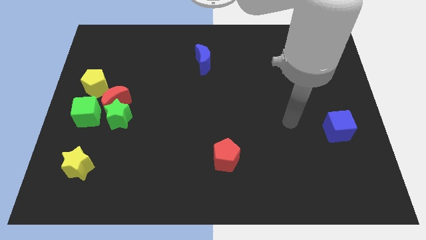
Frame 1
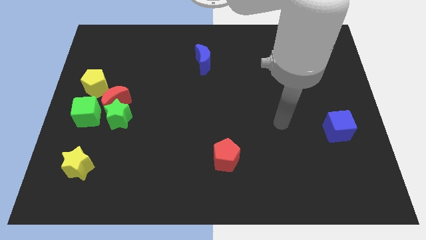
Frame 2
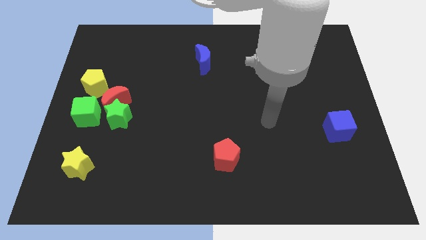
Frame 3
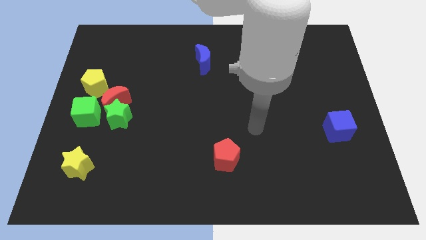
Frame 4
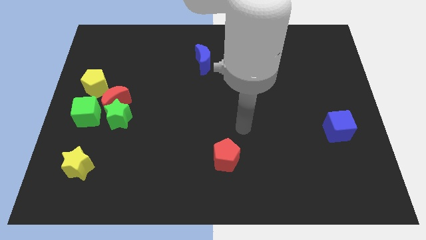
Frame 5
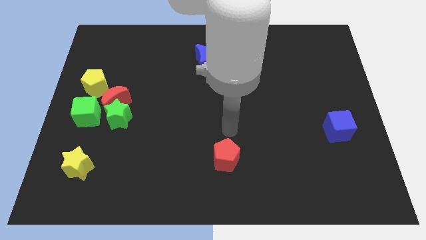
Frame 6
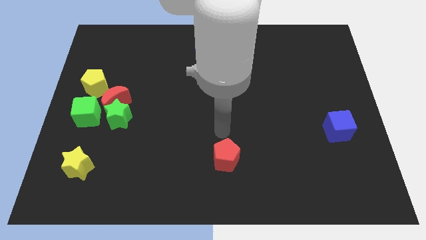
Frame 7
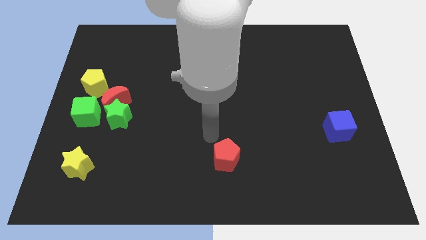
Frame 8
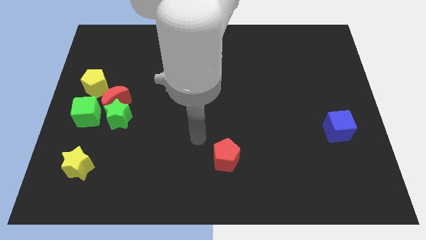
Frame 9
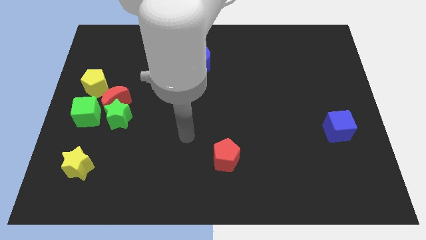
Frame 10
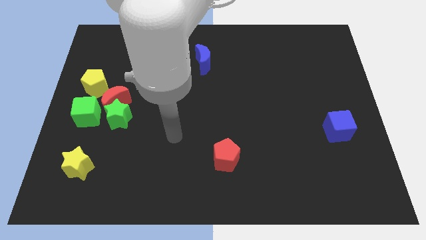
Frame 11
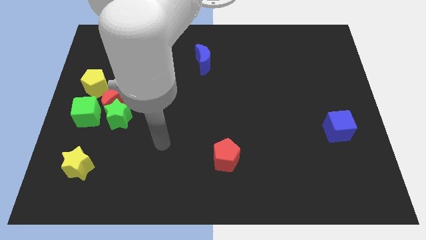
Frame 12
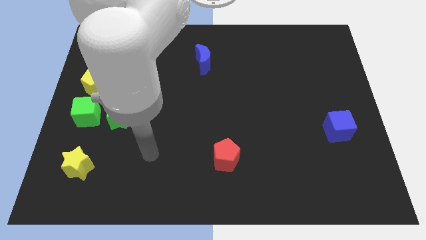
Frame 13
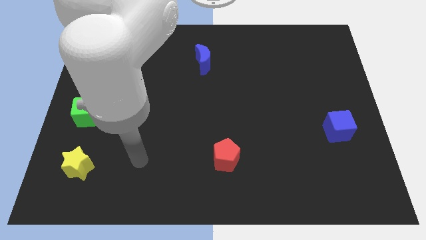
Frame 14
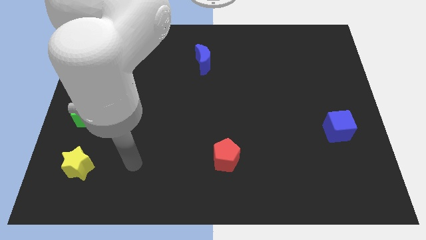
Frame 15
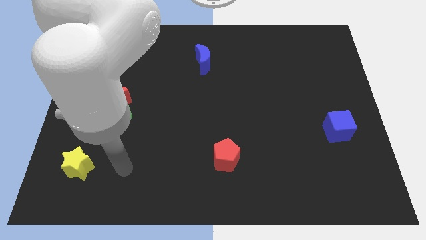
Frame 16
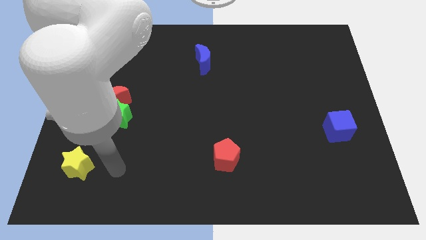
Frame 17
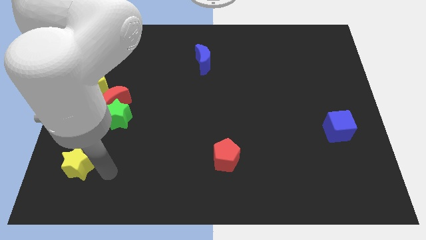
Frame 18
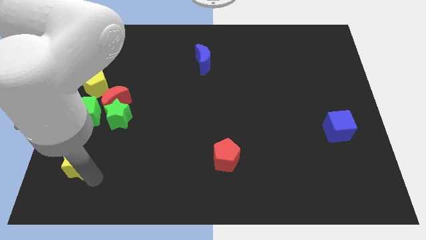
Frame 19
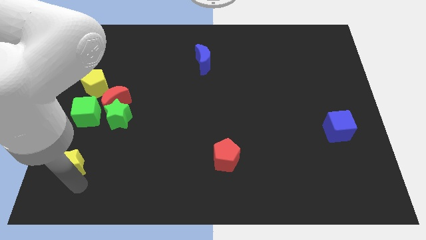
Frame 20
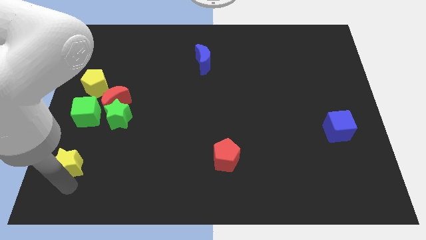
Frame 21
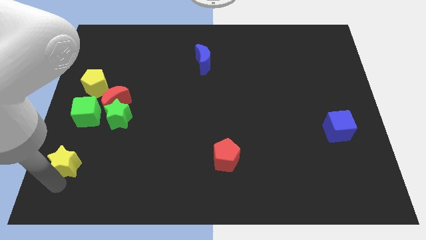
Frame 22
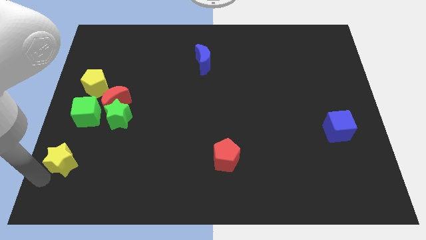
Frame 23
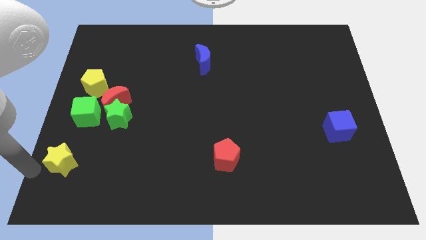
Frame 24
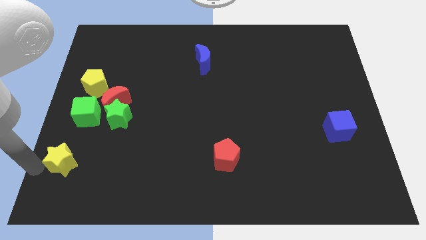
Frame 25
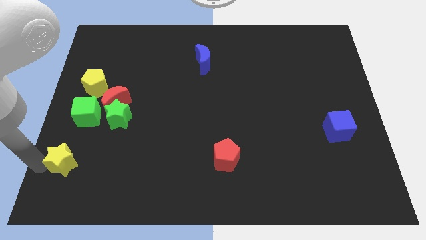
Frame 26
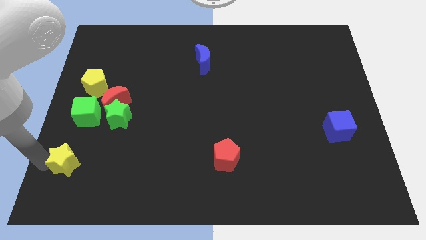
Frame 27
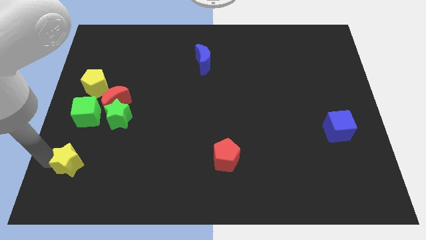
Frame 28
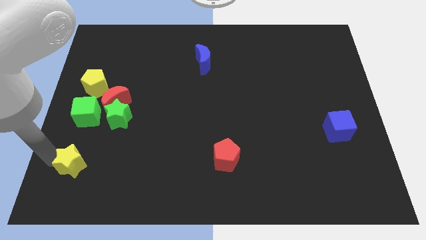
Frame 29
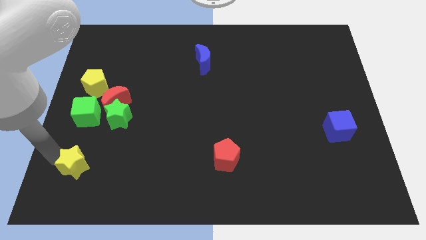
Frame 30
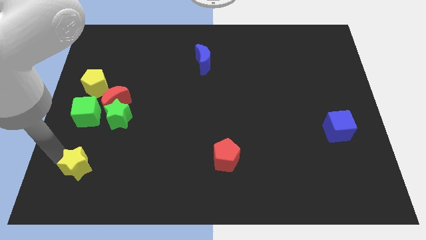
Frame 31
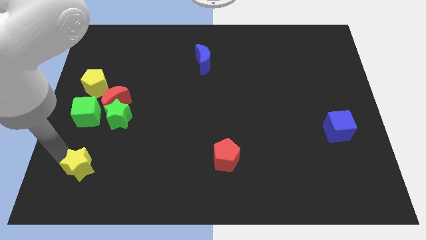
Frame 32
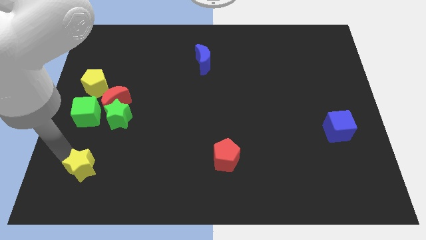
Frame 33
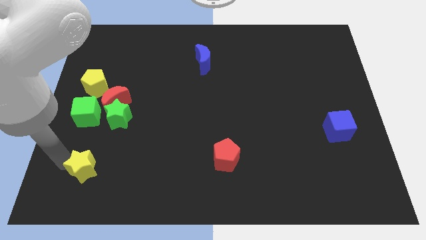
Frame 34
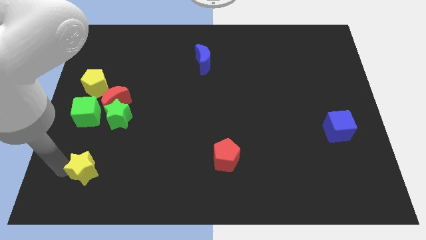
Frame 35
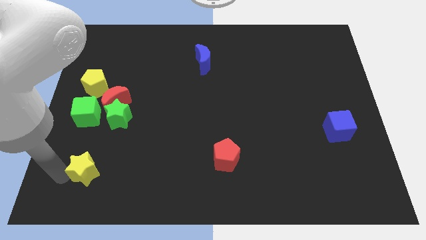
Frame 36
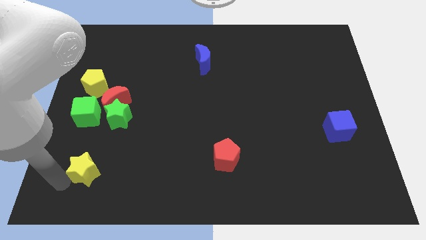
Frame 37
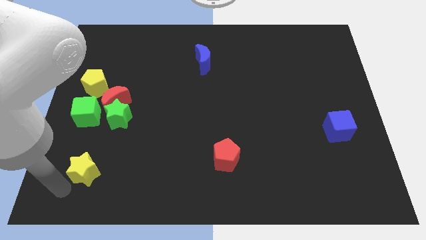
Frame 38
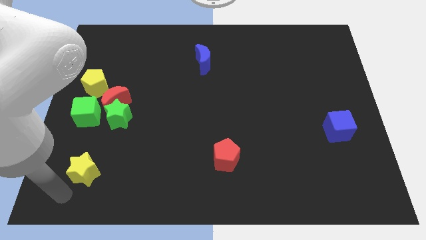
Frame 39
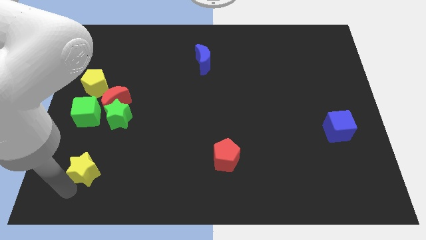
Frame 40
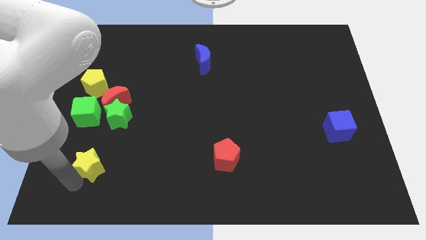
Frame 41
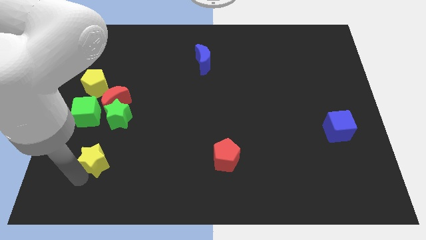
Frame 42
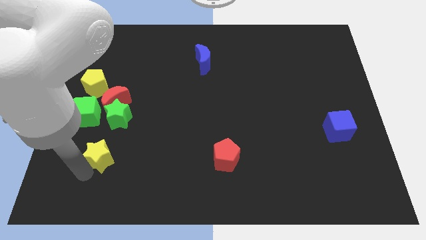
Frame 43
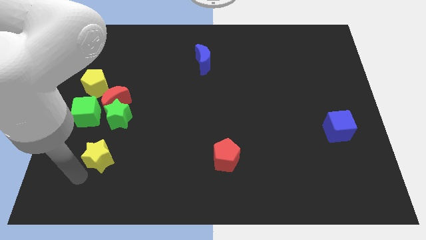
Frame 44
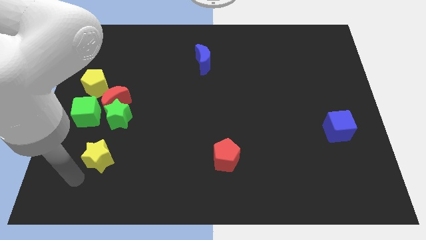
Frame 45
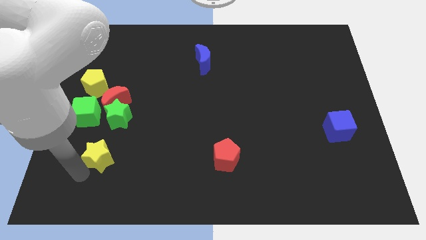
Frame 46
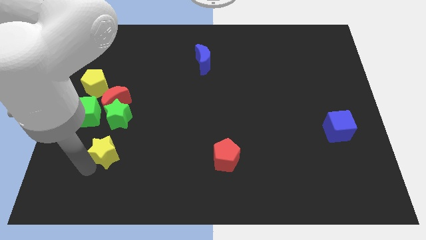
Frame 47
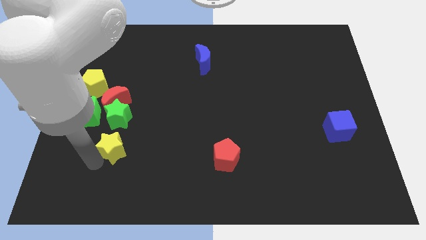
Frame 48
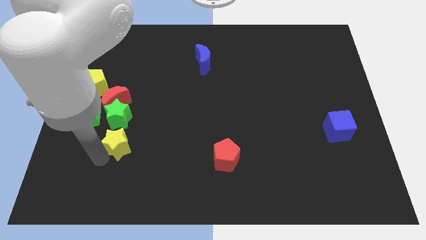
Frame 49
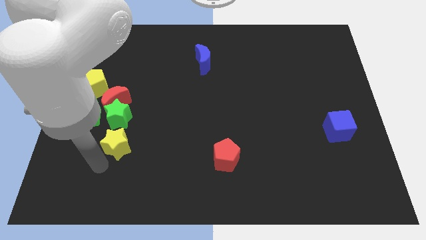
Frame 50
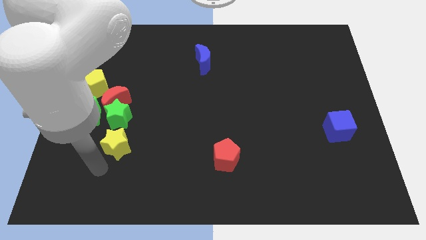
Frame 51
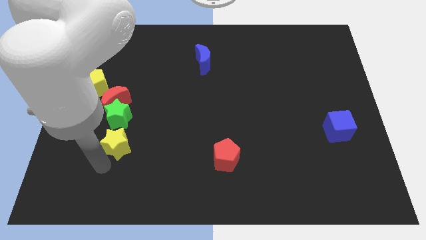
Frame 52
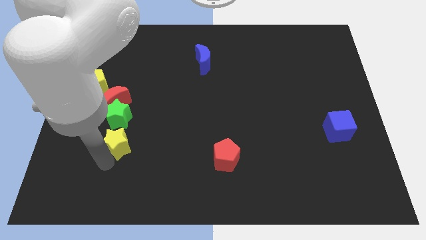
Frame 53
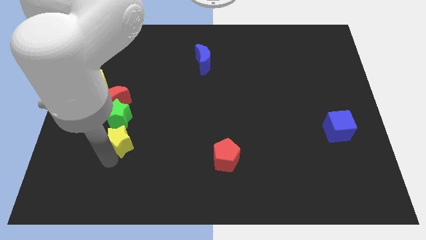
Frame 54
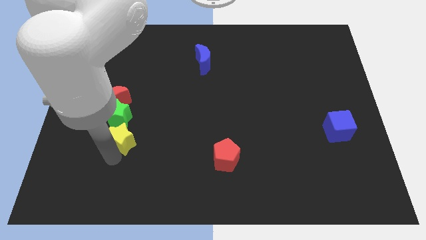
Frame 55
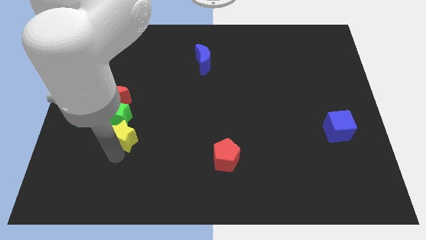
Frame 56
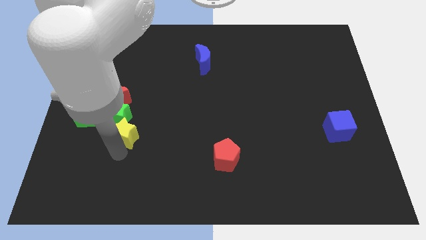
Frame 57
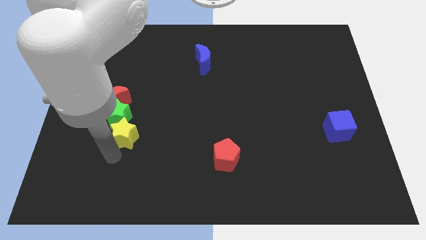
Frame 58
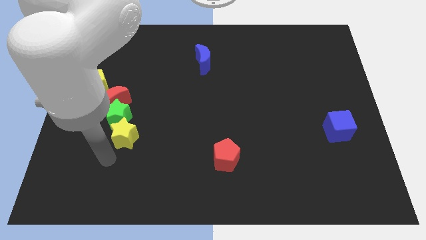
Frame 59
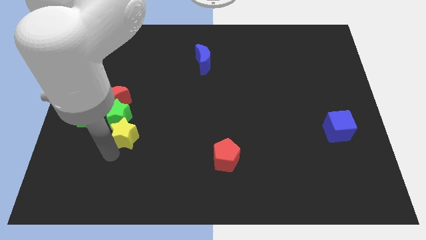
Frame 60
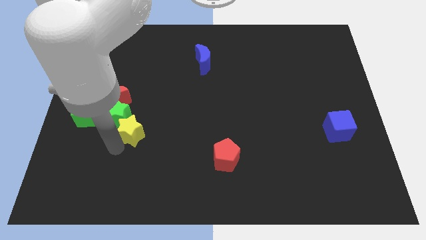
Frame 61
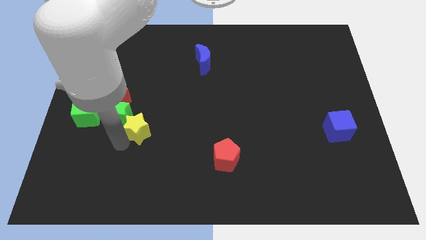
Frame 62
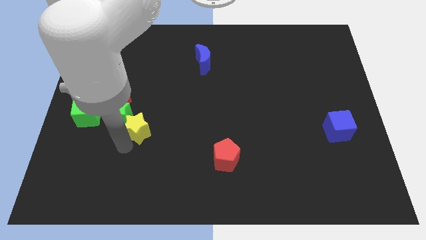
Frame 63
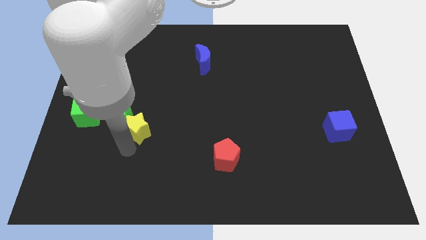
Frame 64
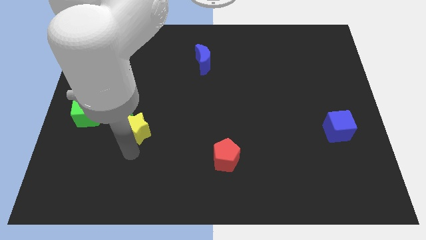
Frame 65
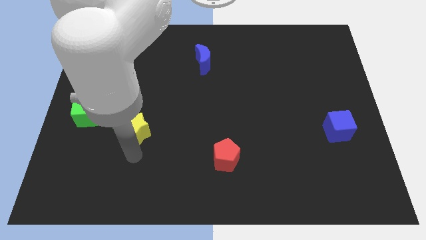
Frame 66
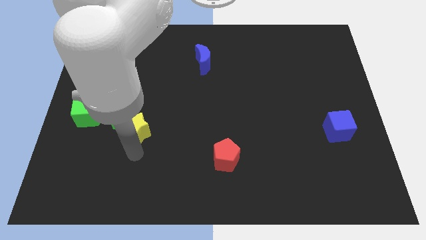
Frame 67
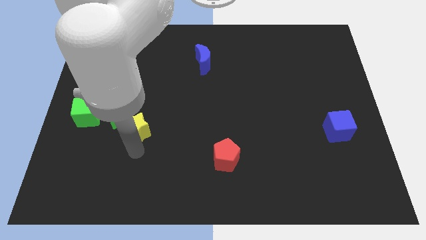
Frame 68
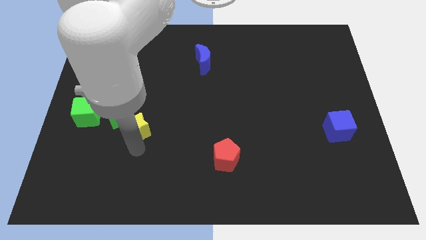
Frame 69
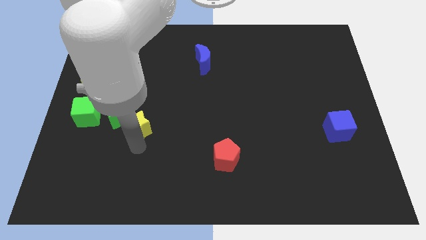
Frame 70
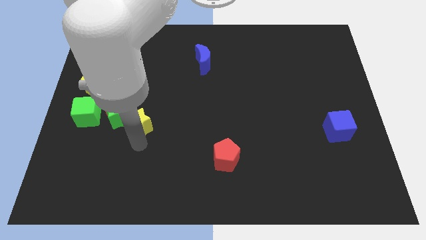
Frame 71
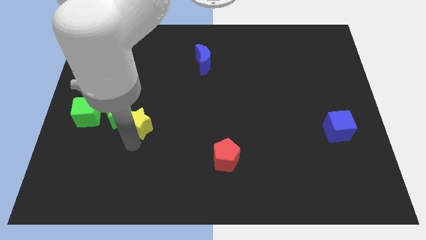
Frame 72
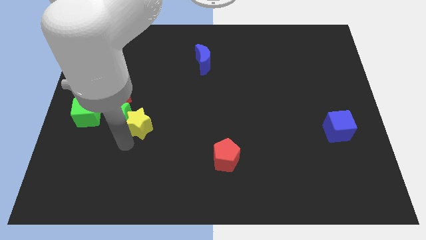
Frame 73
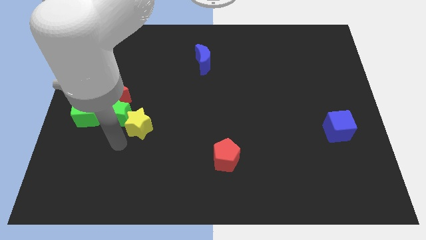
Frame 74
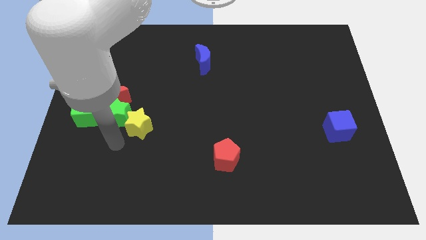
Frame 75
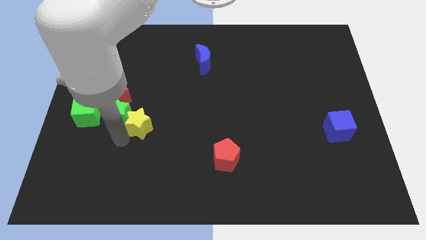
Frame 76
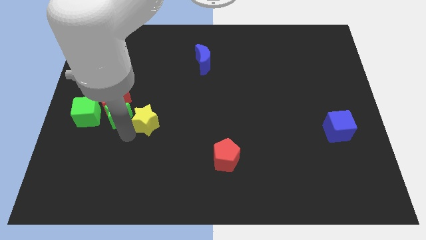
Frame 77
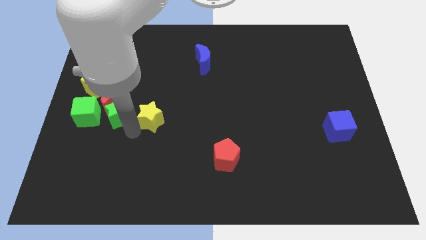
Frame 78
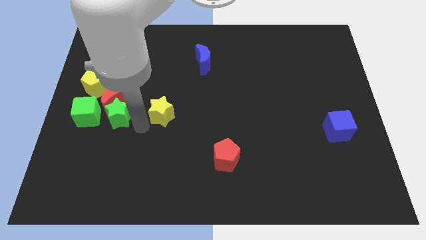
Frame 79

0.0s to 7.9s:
push the yellow star up and to the right
